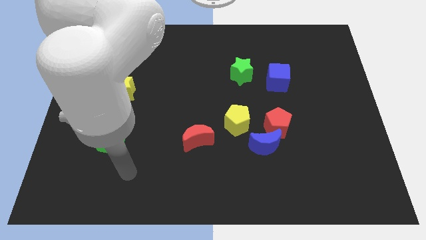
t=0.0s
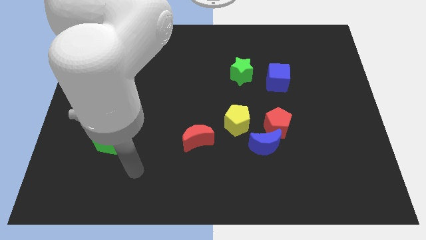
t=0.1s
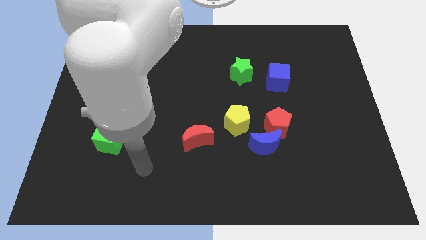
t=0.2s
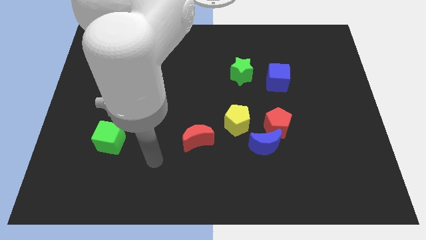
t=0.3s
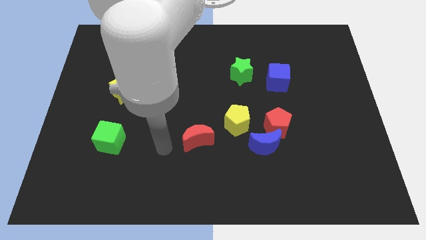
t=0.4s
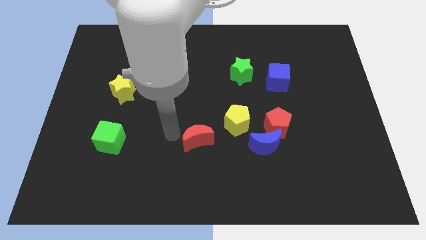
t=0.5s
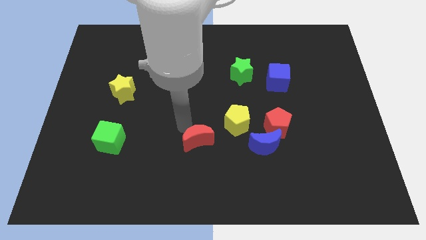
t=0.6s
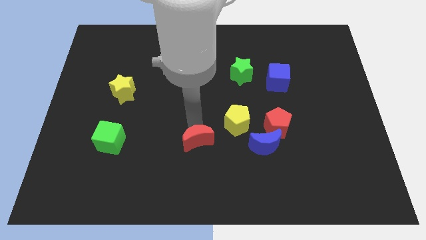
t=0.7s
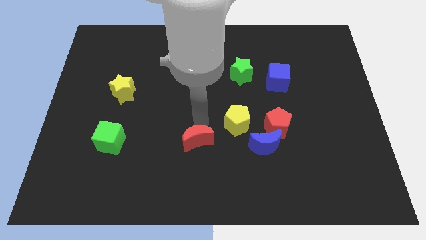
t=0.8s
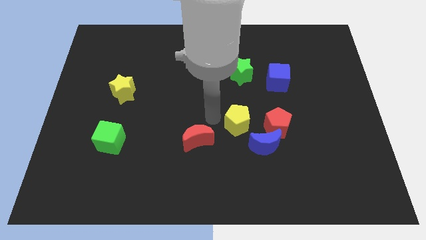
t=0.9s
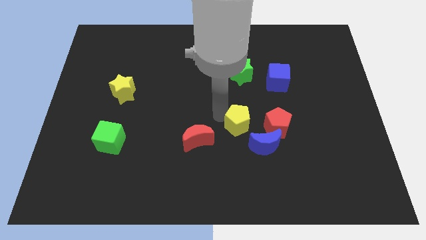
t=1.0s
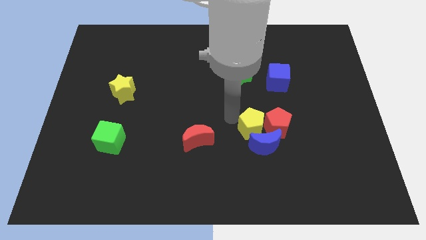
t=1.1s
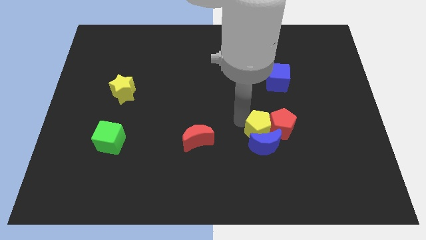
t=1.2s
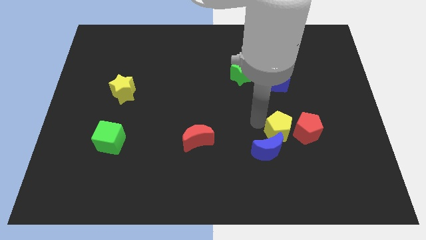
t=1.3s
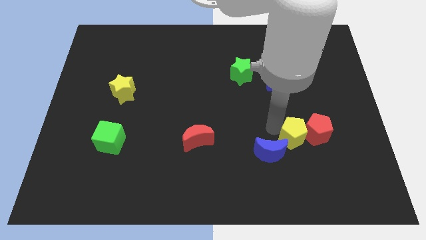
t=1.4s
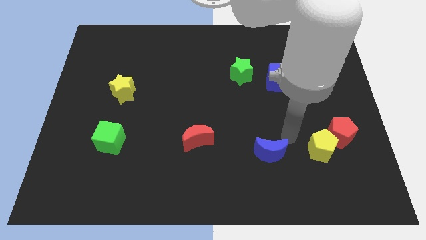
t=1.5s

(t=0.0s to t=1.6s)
pull the blue moon apart from the red pentagon and yellow pentagon

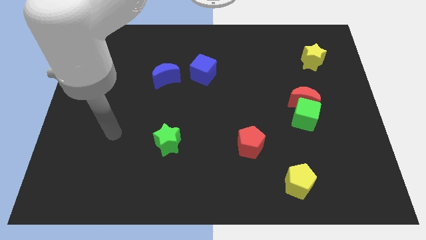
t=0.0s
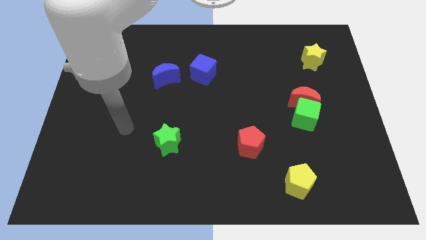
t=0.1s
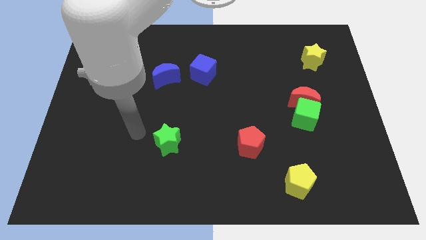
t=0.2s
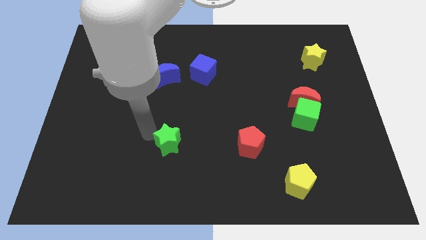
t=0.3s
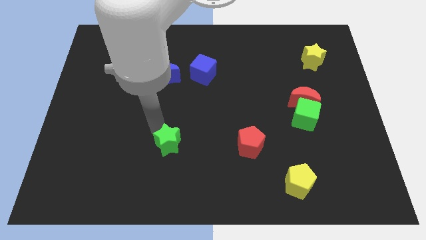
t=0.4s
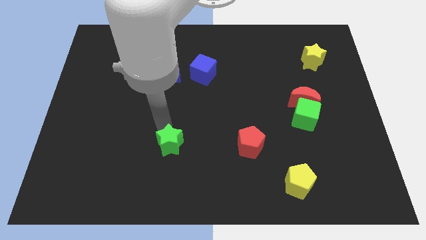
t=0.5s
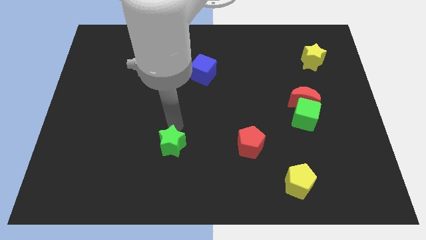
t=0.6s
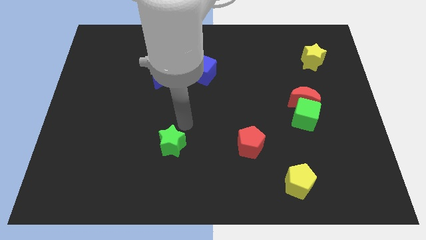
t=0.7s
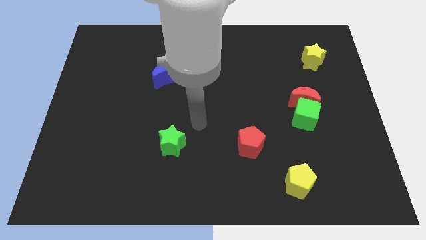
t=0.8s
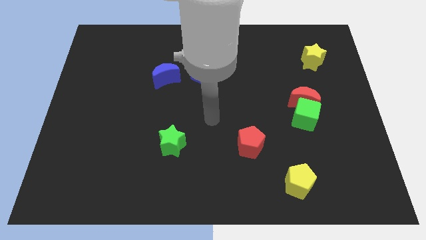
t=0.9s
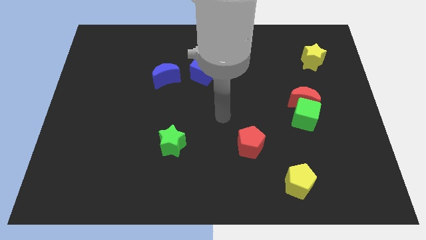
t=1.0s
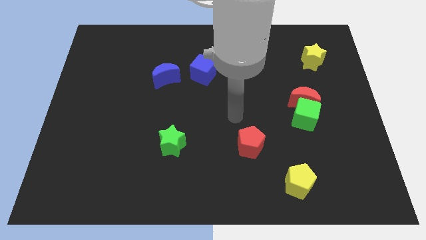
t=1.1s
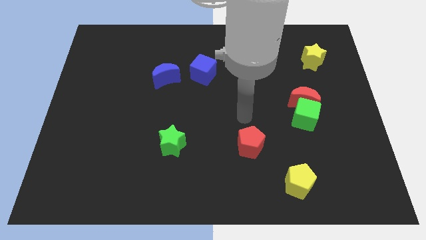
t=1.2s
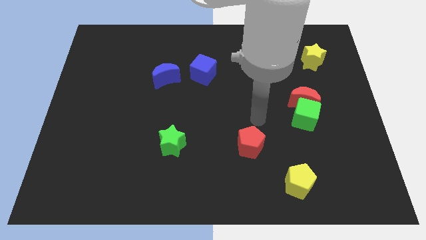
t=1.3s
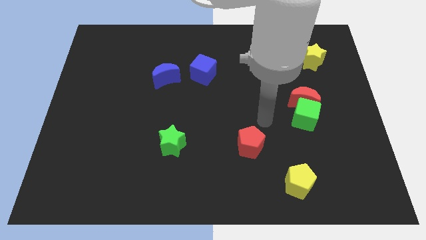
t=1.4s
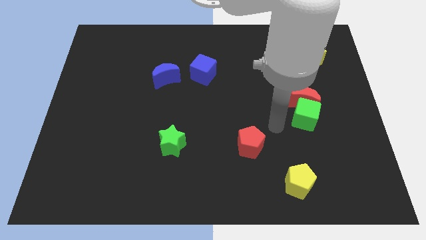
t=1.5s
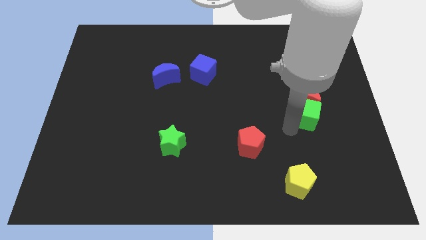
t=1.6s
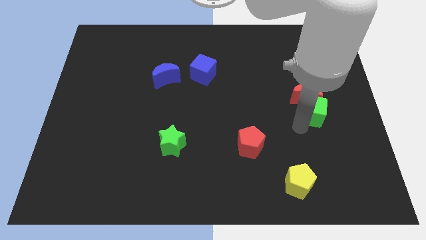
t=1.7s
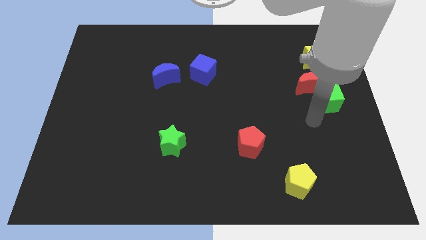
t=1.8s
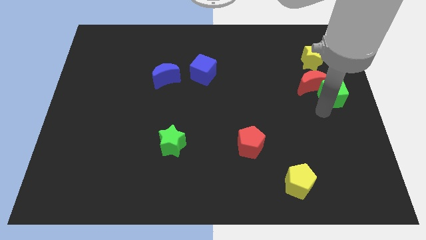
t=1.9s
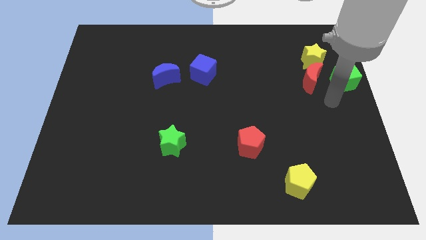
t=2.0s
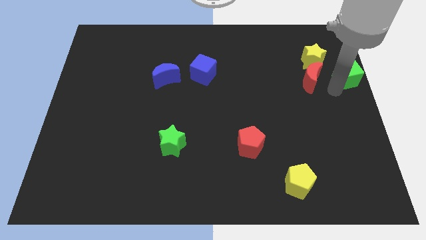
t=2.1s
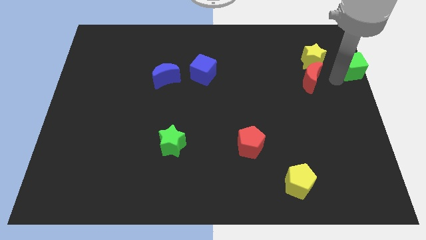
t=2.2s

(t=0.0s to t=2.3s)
move the red moon away from the green cube

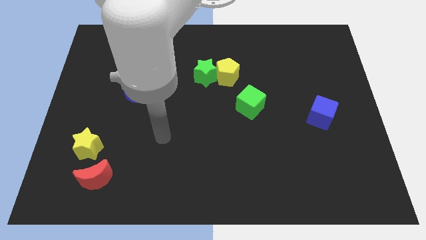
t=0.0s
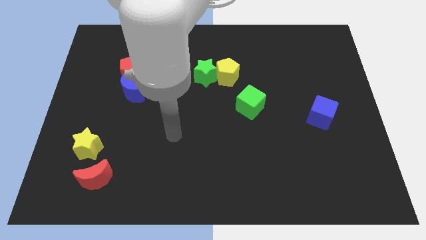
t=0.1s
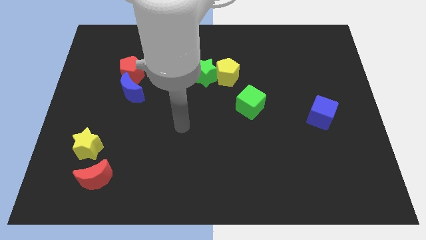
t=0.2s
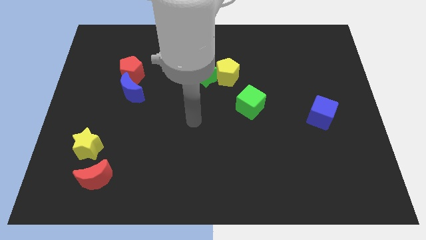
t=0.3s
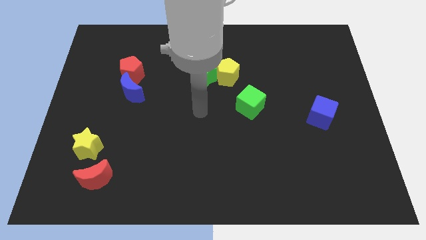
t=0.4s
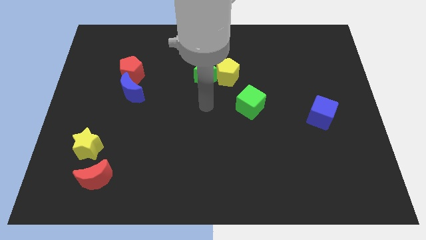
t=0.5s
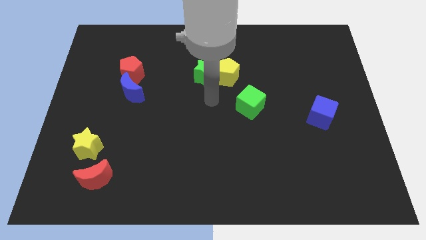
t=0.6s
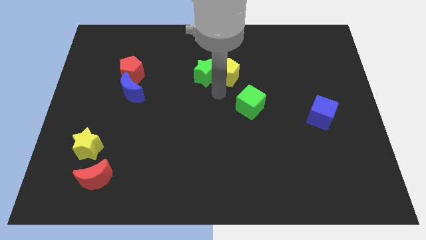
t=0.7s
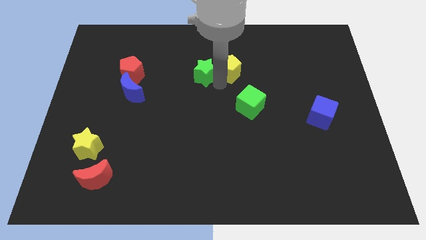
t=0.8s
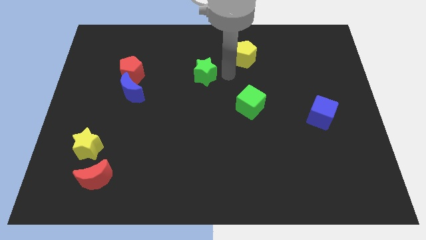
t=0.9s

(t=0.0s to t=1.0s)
pull the green star apart from the yellow pentagon

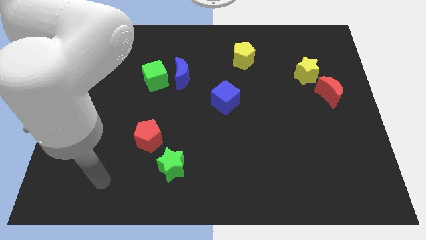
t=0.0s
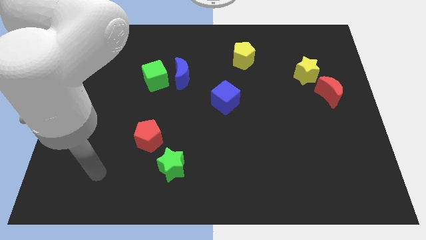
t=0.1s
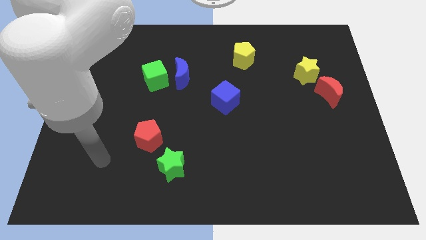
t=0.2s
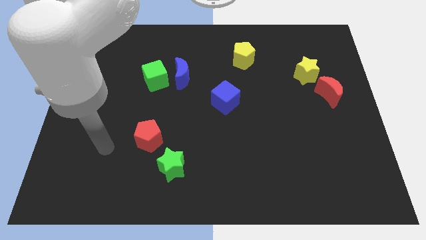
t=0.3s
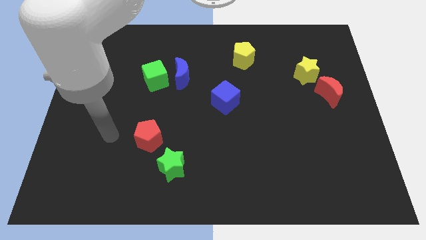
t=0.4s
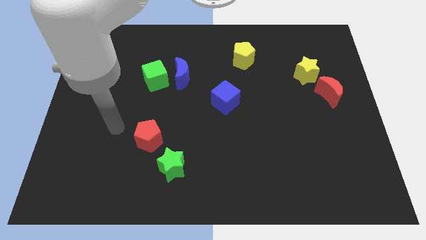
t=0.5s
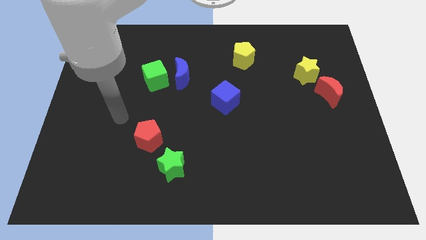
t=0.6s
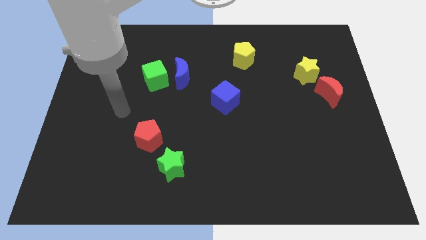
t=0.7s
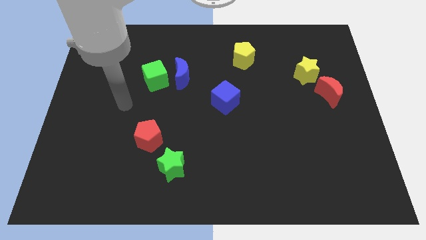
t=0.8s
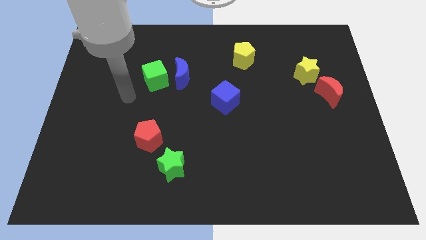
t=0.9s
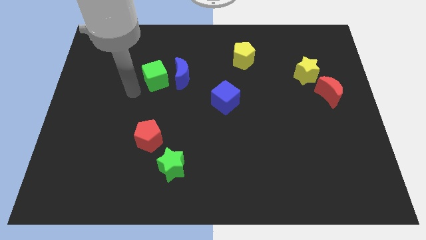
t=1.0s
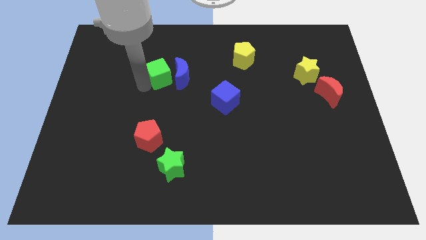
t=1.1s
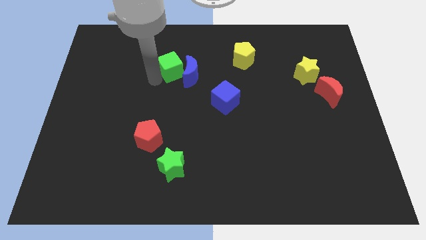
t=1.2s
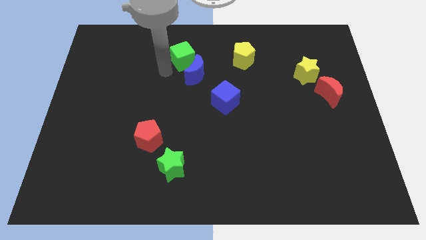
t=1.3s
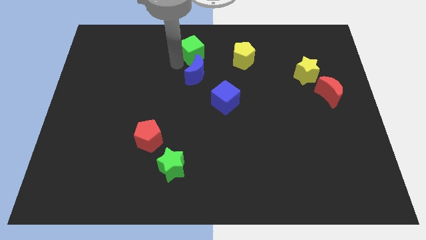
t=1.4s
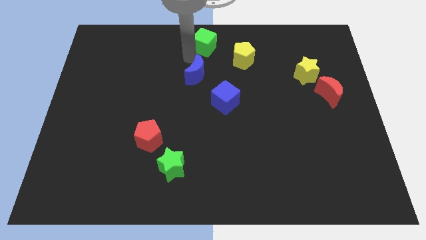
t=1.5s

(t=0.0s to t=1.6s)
move the blue moon away from the green cube

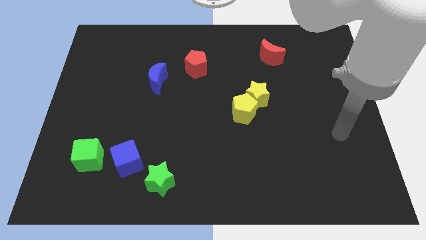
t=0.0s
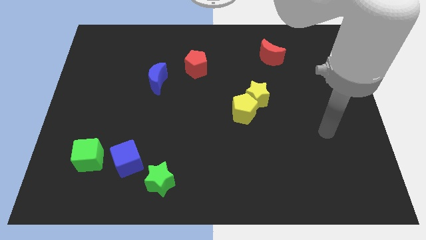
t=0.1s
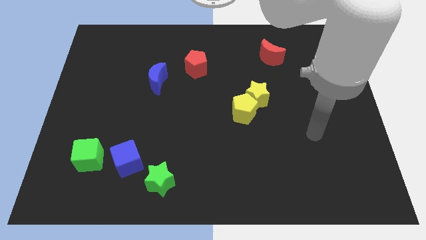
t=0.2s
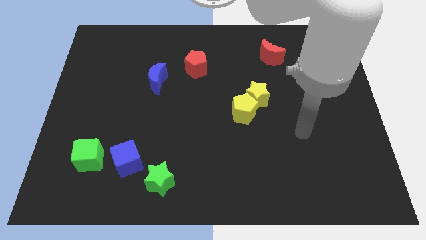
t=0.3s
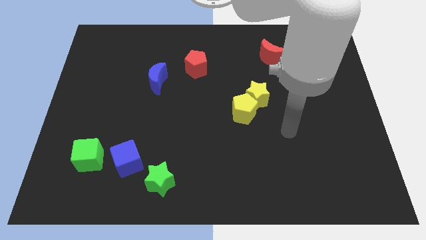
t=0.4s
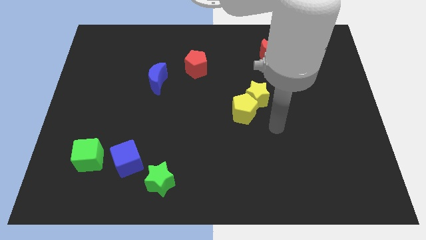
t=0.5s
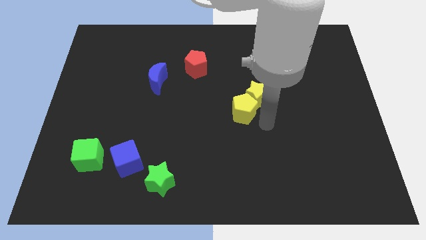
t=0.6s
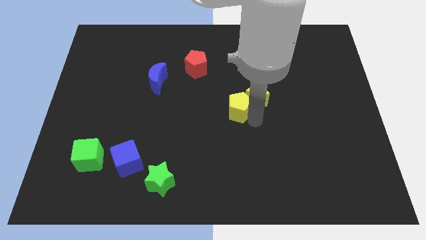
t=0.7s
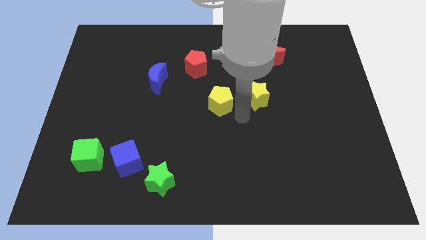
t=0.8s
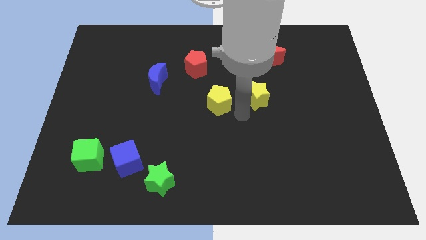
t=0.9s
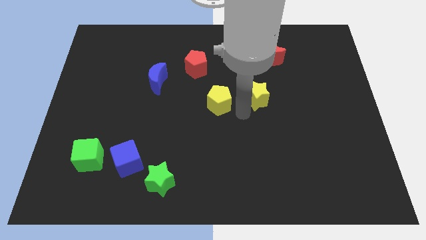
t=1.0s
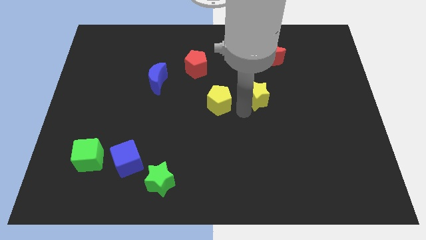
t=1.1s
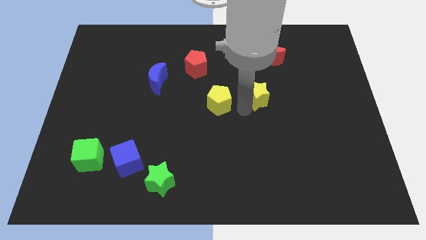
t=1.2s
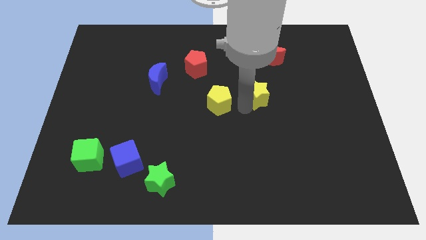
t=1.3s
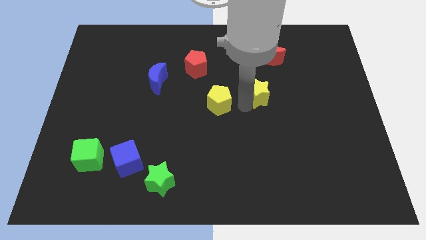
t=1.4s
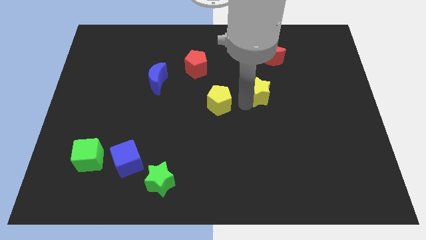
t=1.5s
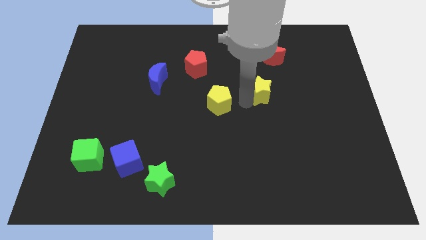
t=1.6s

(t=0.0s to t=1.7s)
move the yellow star away from the yellow pentagon

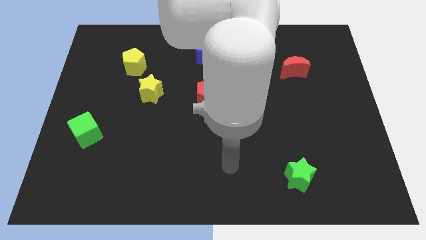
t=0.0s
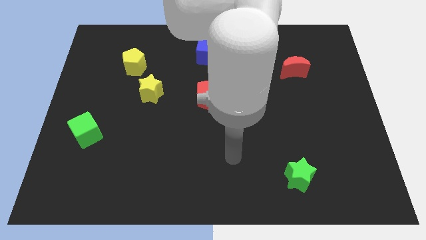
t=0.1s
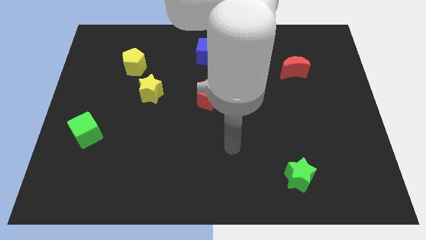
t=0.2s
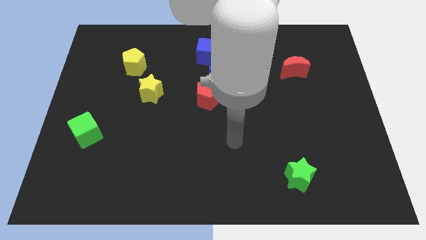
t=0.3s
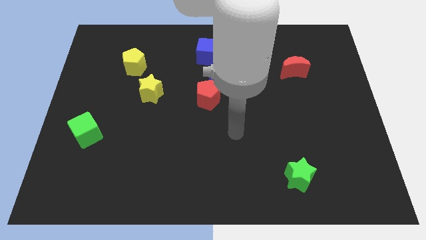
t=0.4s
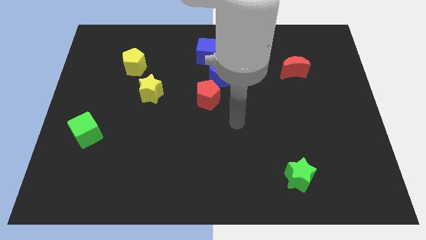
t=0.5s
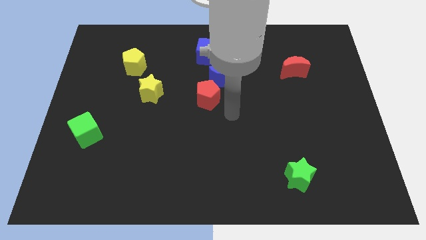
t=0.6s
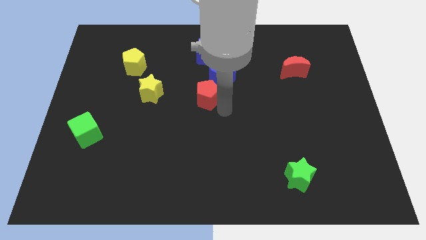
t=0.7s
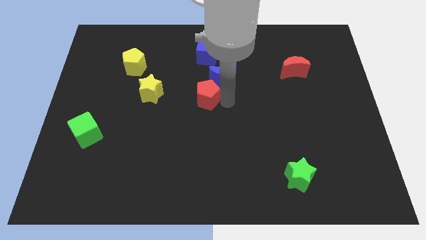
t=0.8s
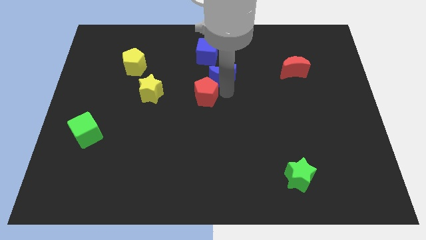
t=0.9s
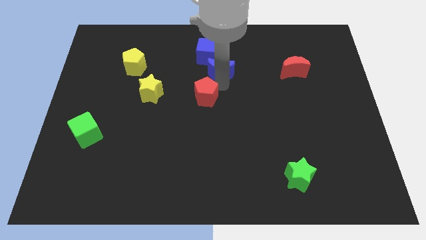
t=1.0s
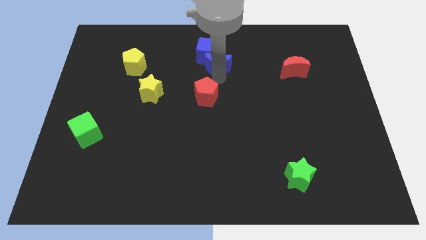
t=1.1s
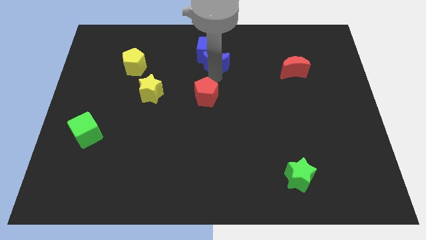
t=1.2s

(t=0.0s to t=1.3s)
separate the red pentagon from the blue moon
